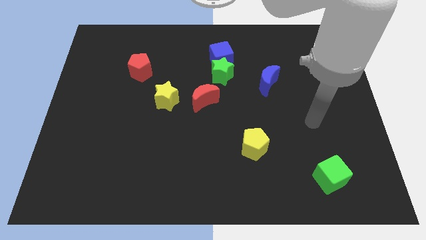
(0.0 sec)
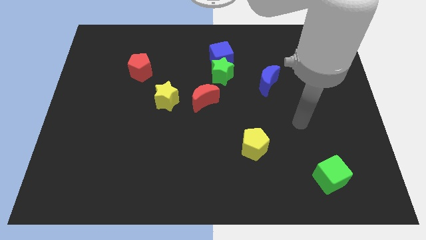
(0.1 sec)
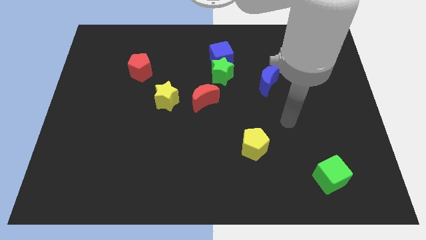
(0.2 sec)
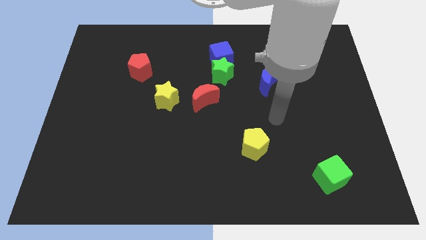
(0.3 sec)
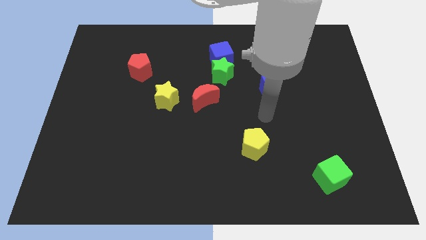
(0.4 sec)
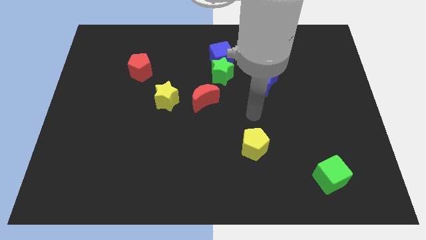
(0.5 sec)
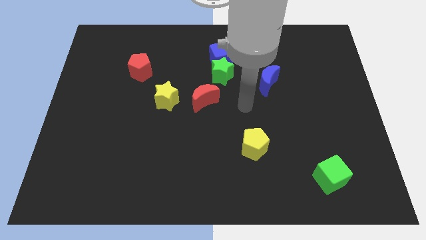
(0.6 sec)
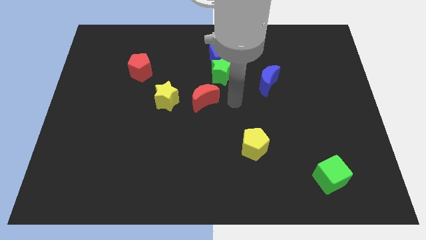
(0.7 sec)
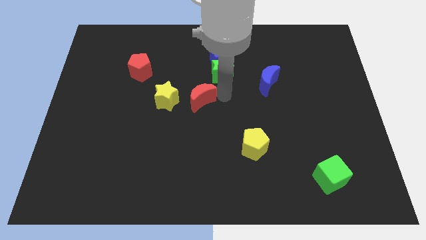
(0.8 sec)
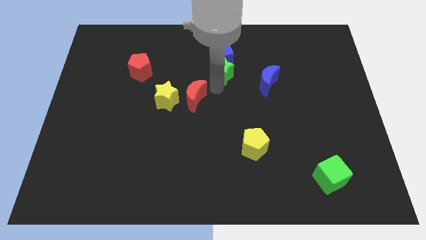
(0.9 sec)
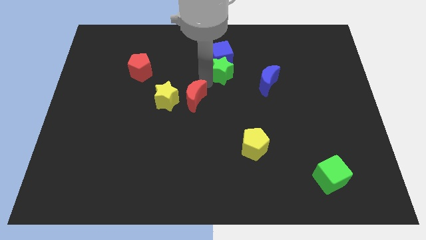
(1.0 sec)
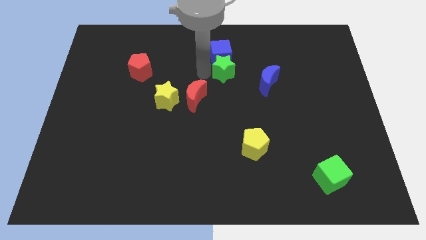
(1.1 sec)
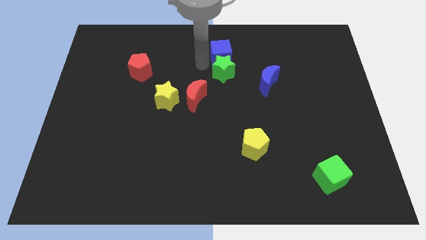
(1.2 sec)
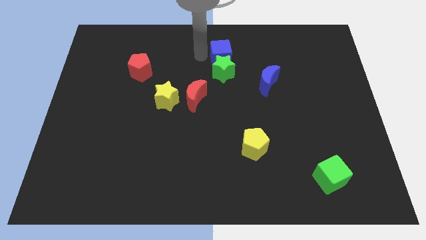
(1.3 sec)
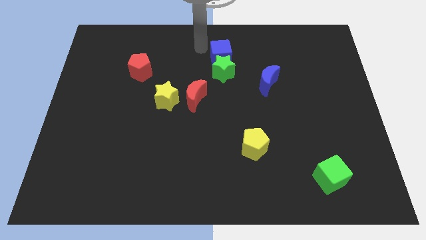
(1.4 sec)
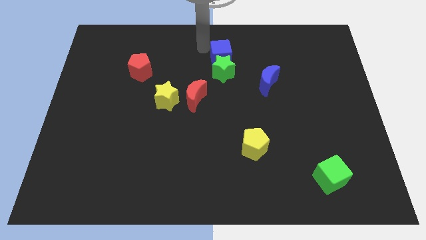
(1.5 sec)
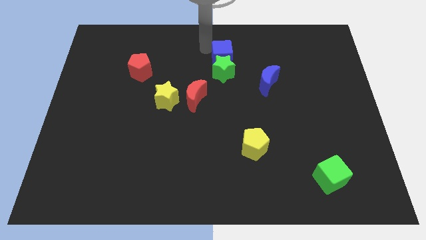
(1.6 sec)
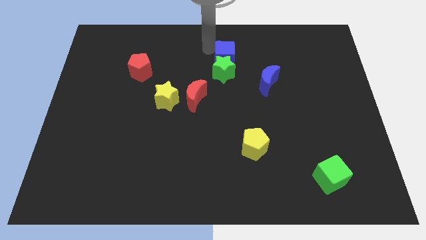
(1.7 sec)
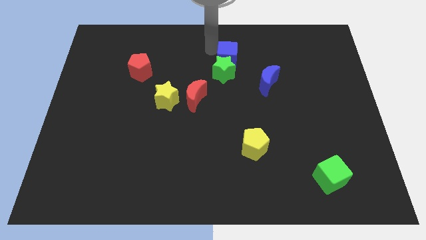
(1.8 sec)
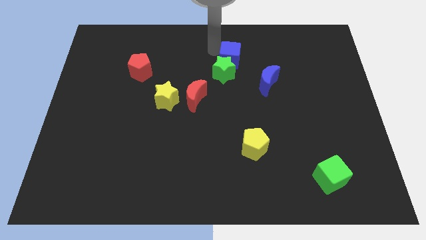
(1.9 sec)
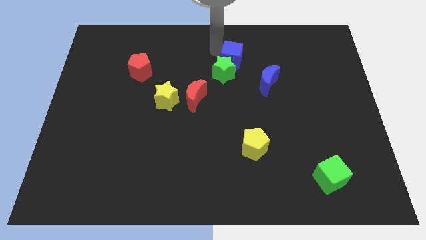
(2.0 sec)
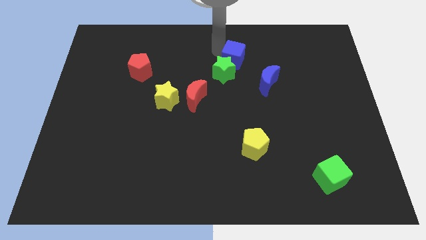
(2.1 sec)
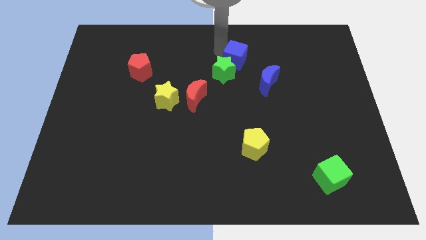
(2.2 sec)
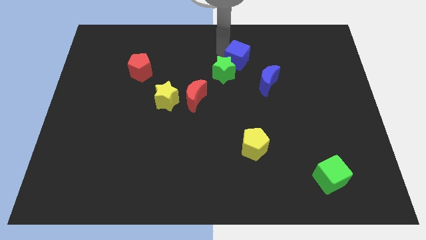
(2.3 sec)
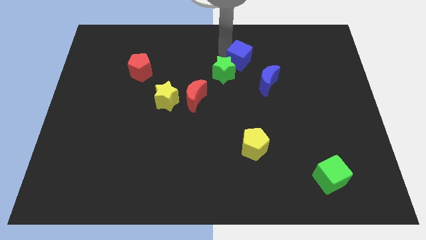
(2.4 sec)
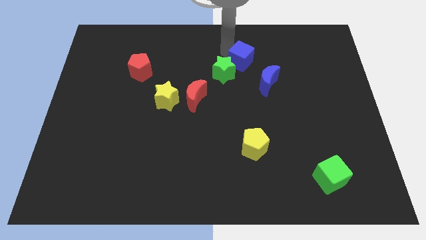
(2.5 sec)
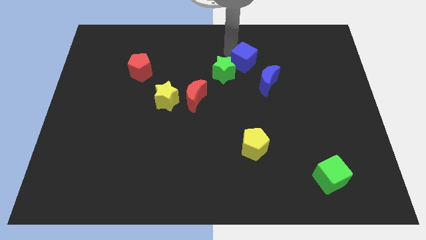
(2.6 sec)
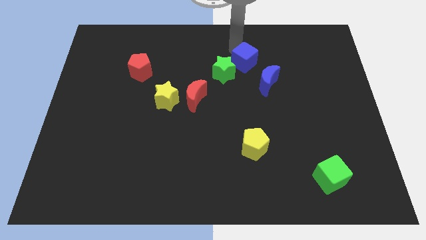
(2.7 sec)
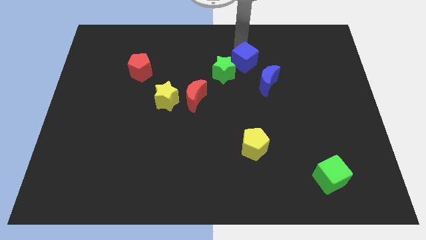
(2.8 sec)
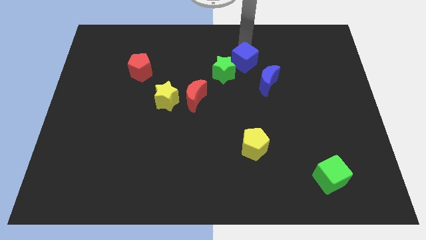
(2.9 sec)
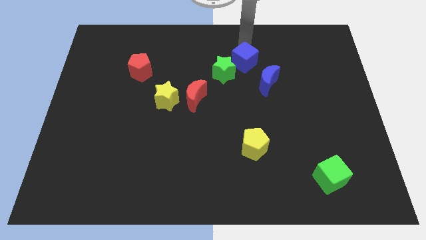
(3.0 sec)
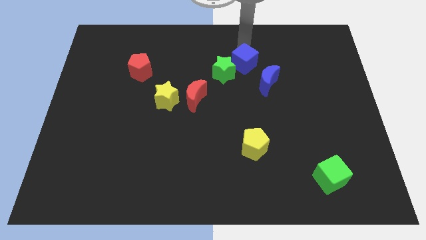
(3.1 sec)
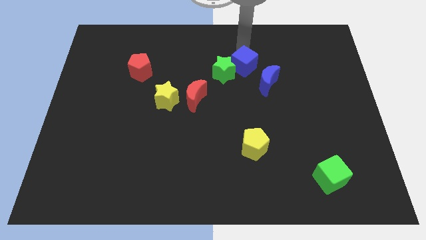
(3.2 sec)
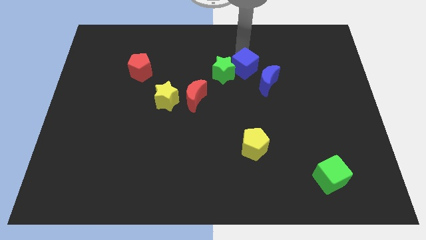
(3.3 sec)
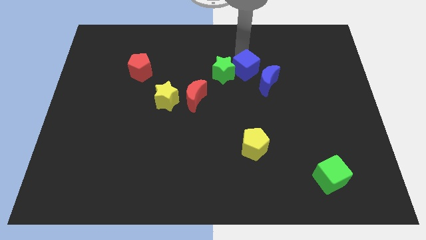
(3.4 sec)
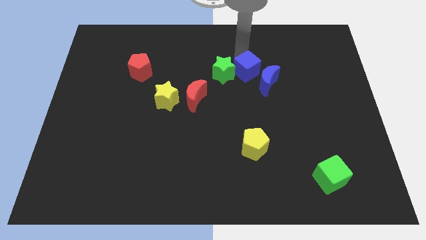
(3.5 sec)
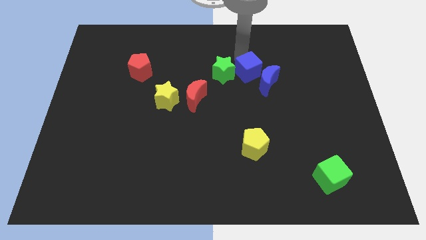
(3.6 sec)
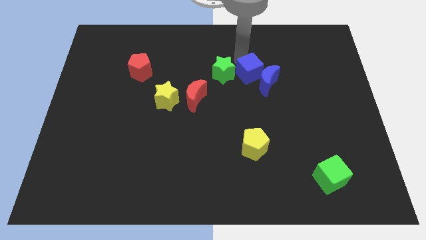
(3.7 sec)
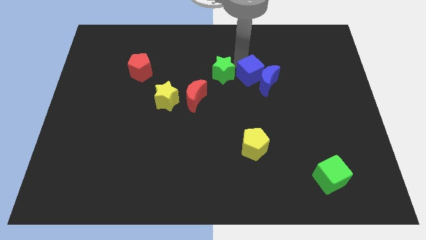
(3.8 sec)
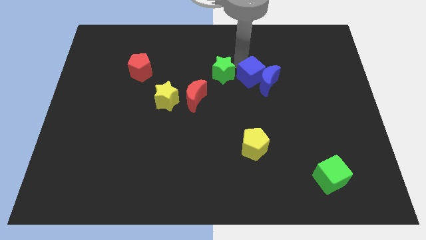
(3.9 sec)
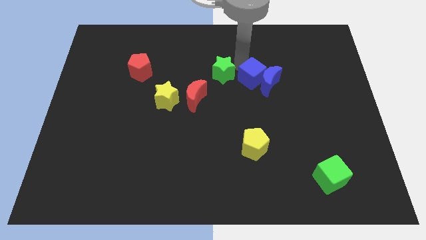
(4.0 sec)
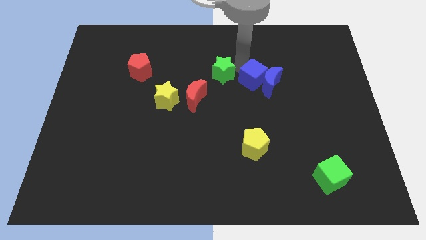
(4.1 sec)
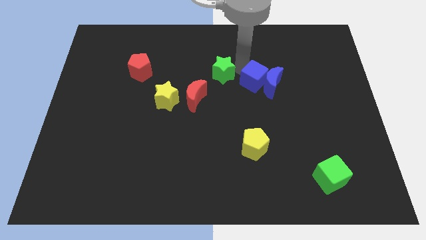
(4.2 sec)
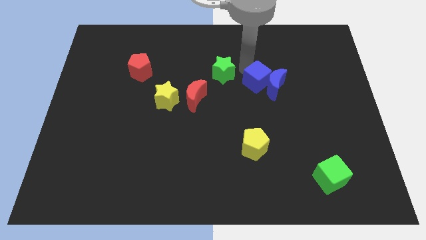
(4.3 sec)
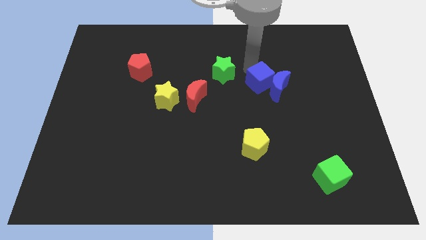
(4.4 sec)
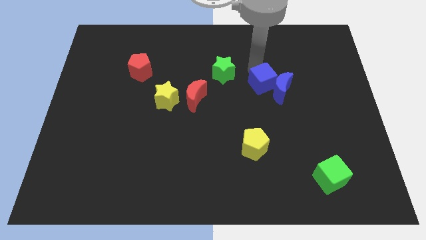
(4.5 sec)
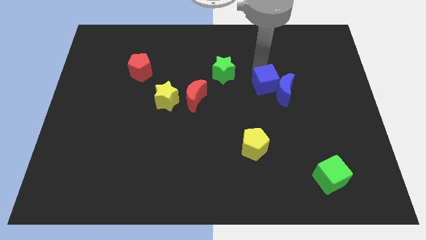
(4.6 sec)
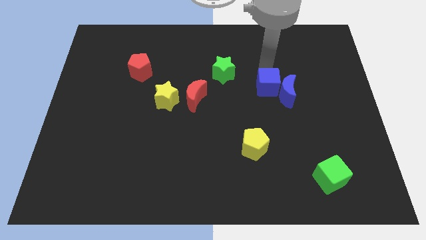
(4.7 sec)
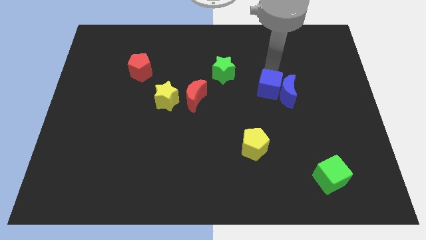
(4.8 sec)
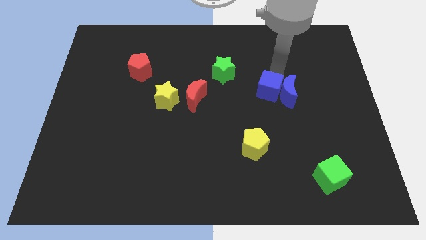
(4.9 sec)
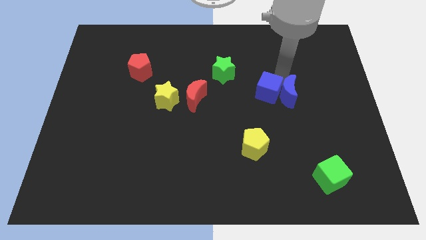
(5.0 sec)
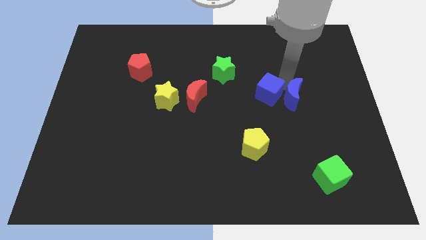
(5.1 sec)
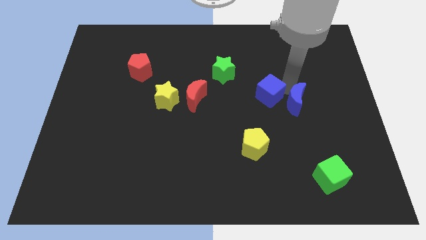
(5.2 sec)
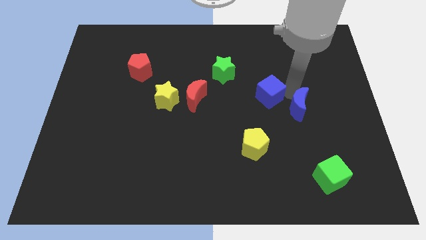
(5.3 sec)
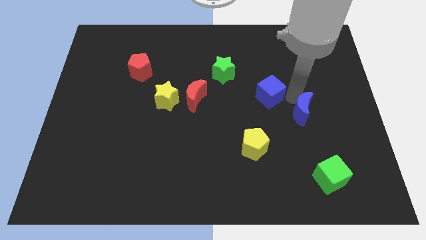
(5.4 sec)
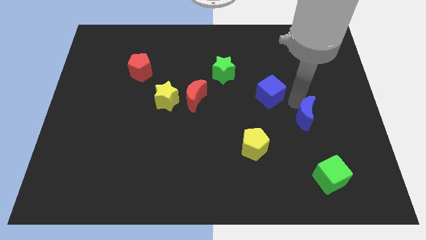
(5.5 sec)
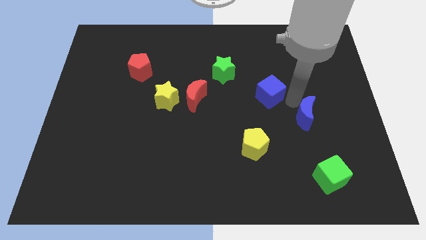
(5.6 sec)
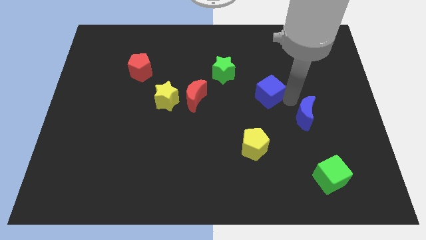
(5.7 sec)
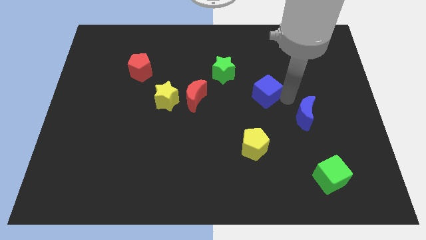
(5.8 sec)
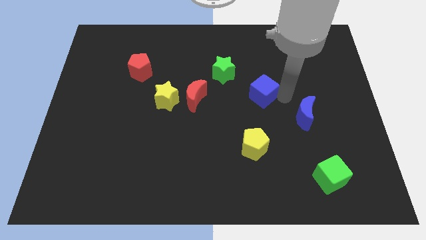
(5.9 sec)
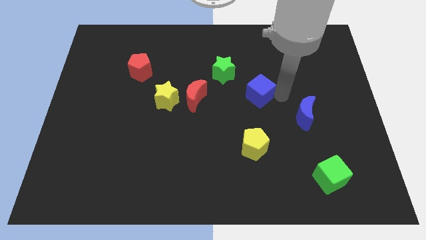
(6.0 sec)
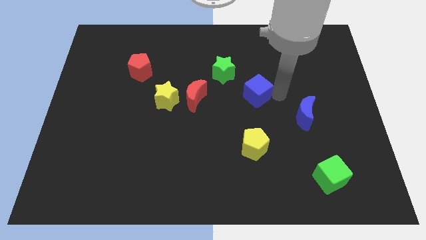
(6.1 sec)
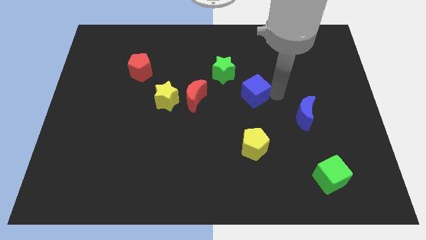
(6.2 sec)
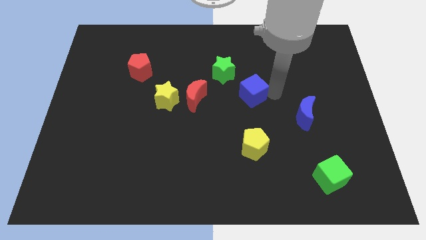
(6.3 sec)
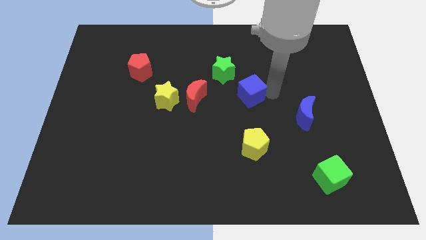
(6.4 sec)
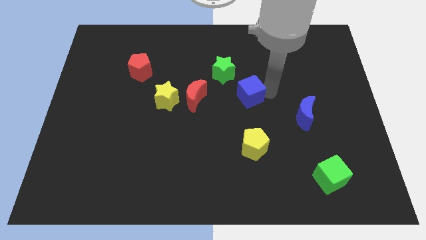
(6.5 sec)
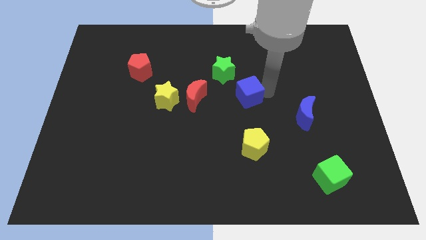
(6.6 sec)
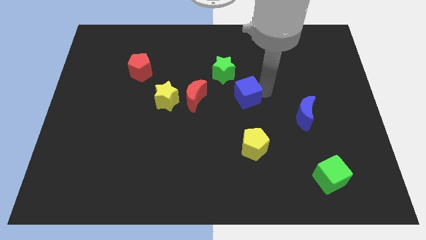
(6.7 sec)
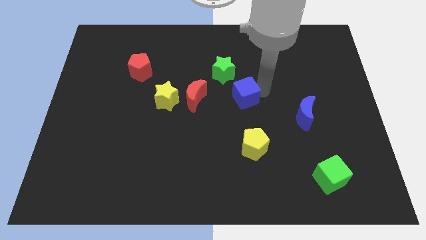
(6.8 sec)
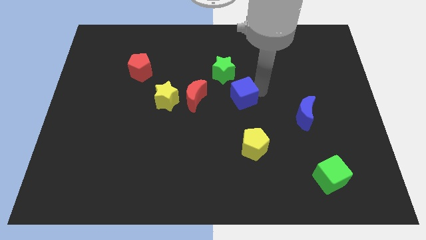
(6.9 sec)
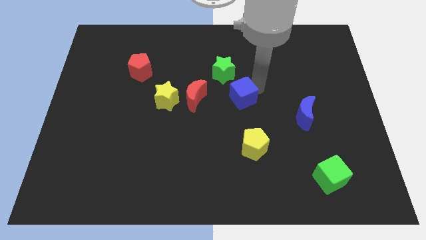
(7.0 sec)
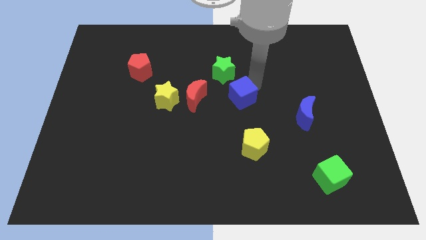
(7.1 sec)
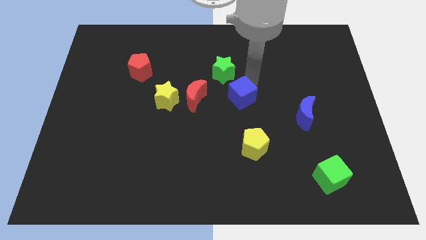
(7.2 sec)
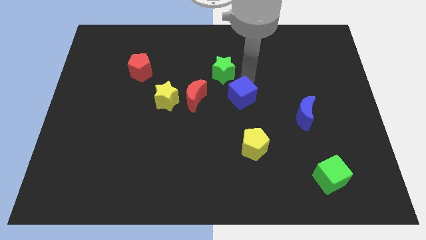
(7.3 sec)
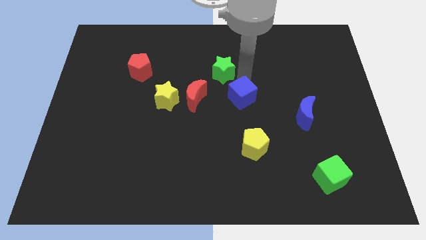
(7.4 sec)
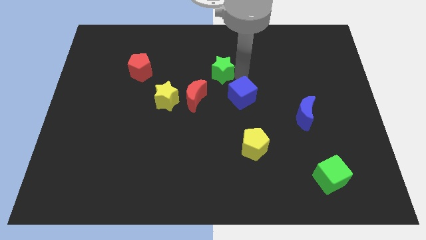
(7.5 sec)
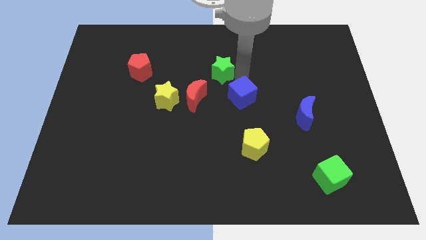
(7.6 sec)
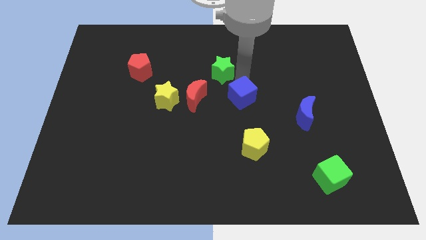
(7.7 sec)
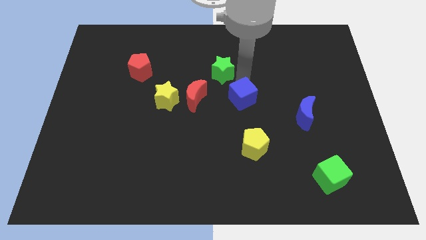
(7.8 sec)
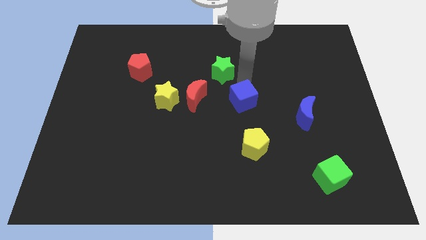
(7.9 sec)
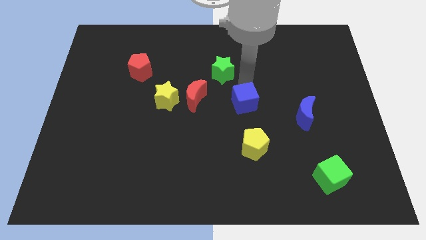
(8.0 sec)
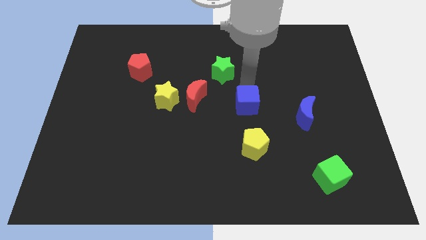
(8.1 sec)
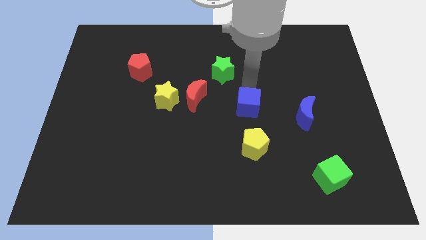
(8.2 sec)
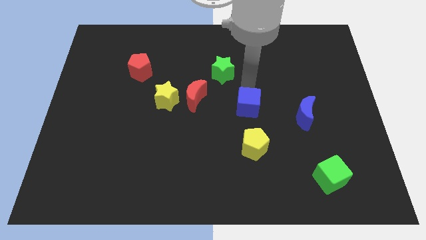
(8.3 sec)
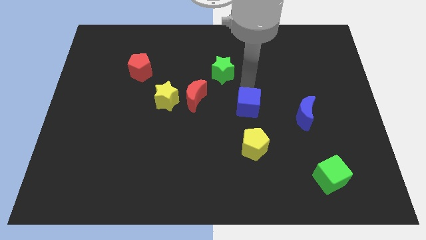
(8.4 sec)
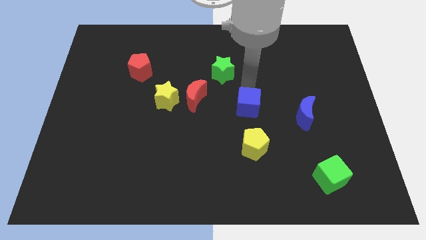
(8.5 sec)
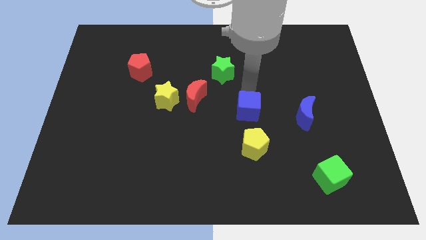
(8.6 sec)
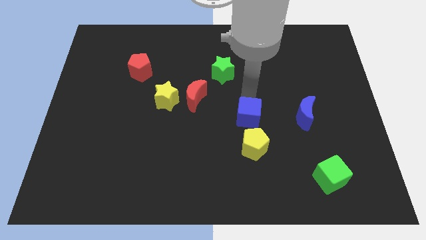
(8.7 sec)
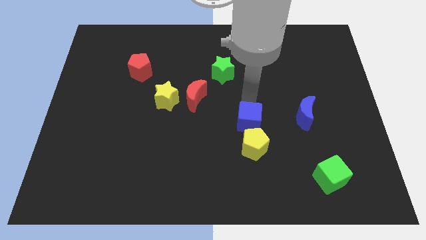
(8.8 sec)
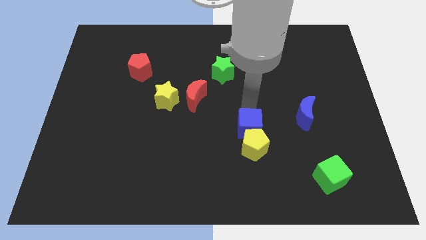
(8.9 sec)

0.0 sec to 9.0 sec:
move the blue cube towards the yellow pentagon
